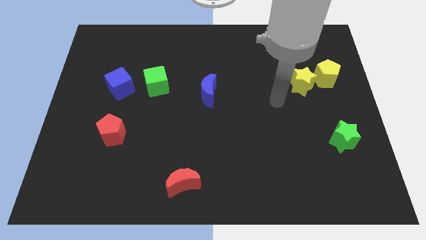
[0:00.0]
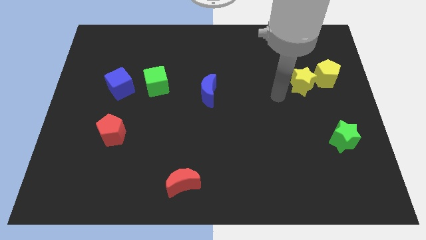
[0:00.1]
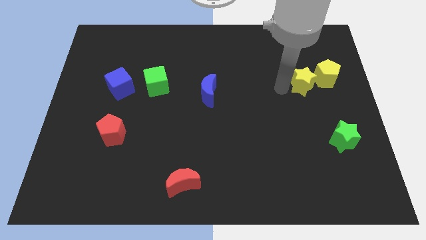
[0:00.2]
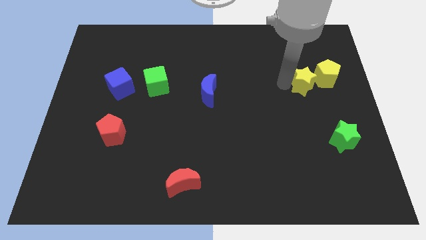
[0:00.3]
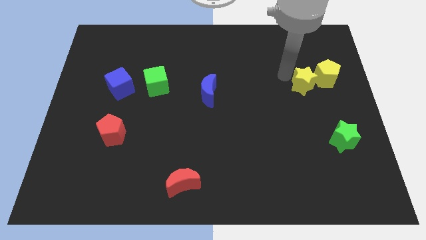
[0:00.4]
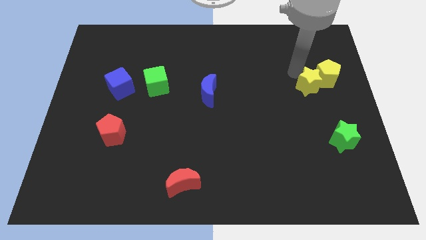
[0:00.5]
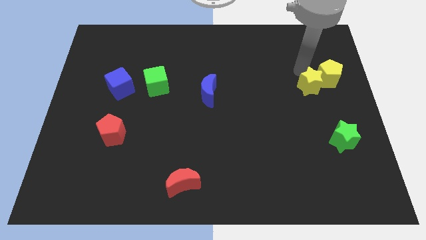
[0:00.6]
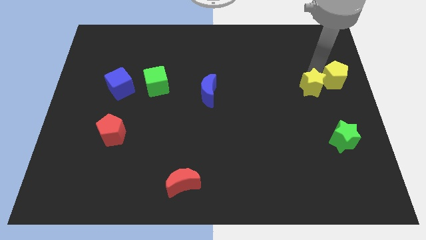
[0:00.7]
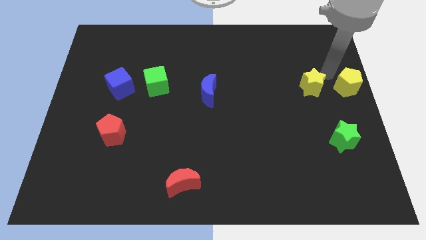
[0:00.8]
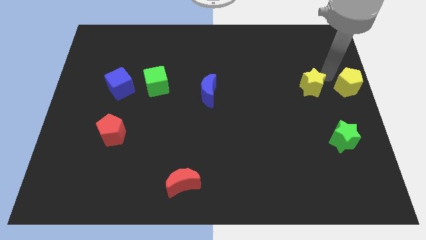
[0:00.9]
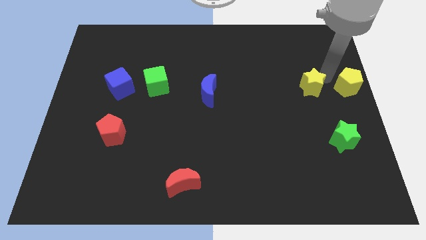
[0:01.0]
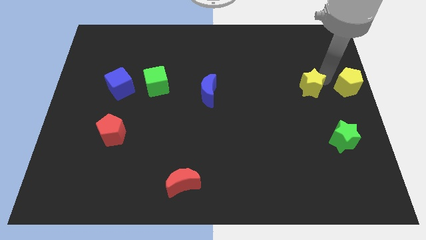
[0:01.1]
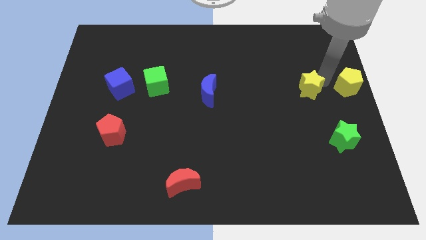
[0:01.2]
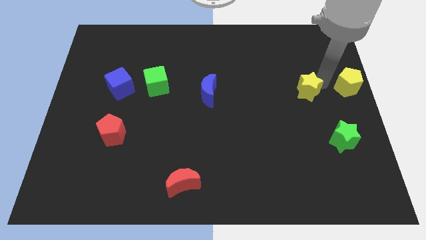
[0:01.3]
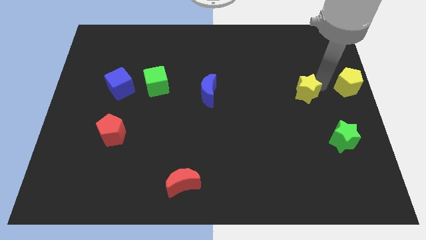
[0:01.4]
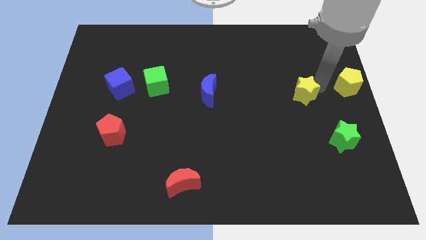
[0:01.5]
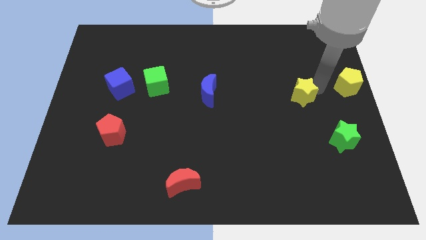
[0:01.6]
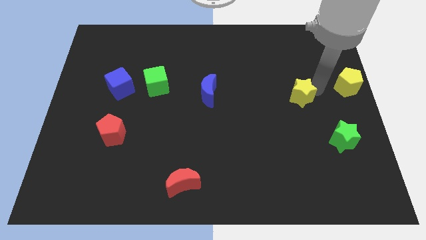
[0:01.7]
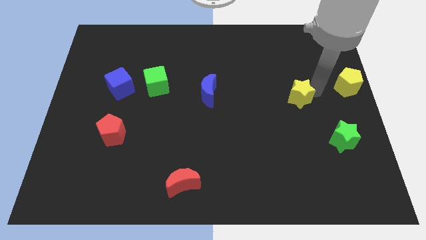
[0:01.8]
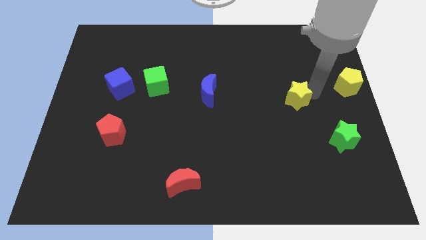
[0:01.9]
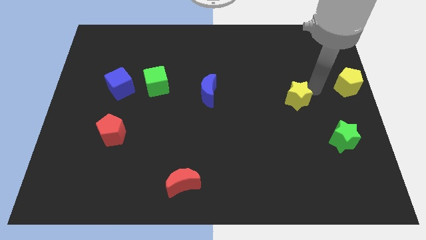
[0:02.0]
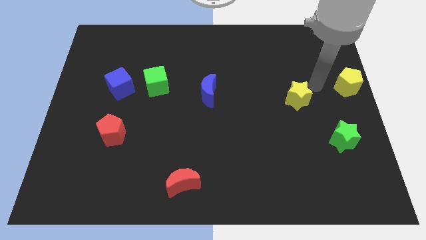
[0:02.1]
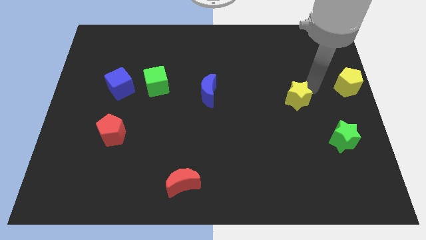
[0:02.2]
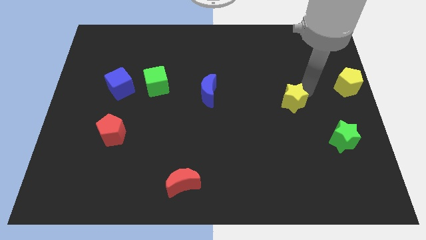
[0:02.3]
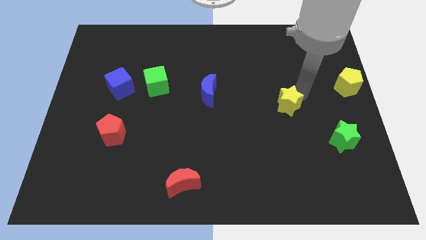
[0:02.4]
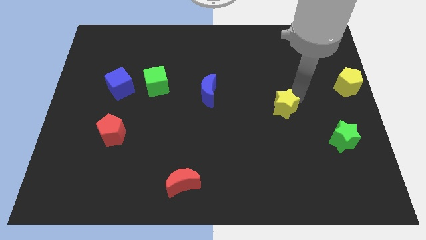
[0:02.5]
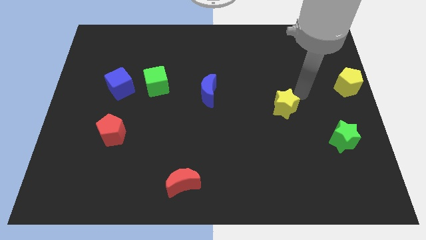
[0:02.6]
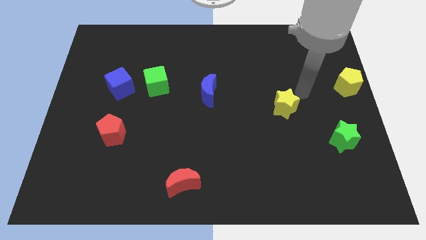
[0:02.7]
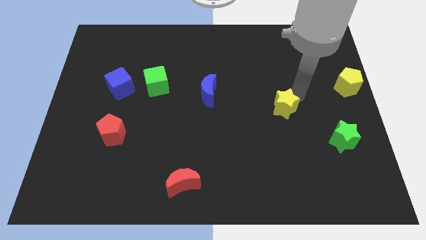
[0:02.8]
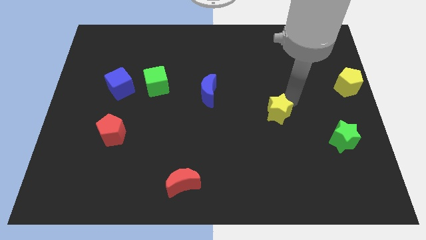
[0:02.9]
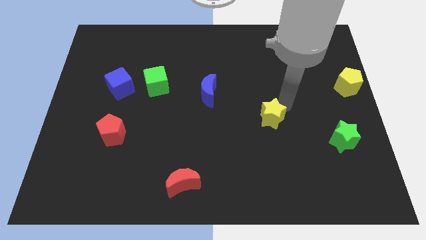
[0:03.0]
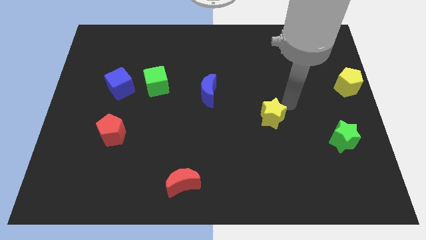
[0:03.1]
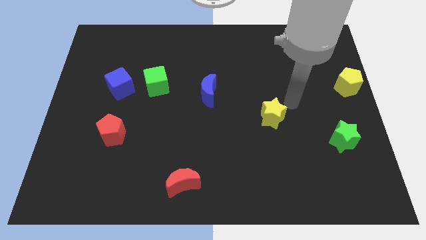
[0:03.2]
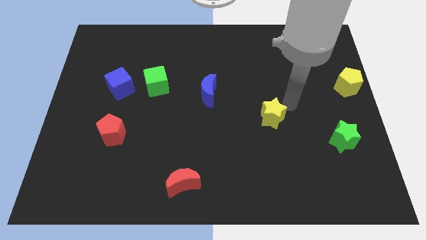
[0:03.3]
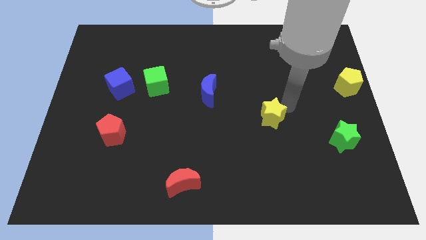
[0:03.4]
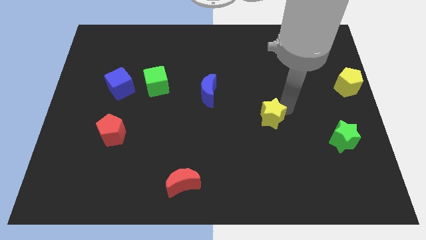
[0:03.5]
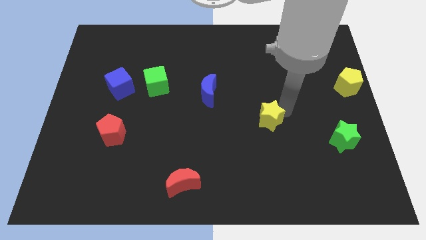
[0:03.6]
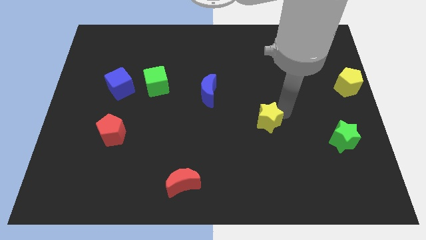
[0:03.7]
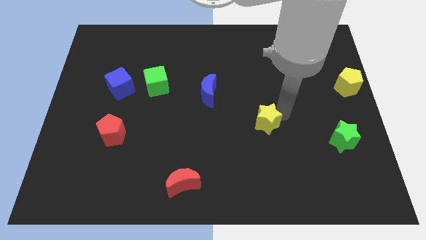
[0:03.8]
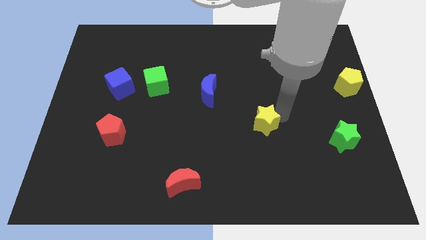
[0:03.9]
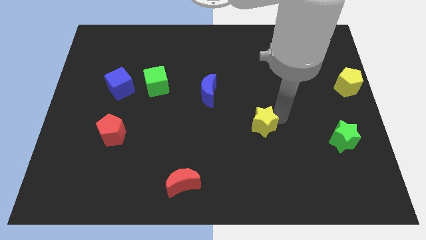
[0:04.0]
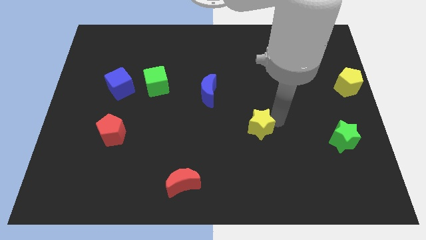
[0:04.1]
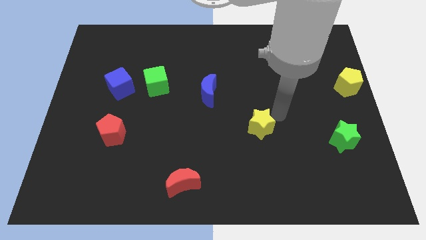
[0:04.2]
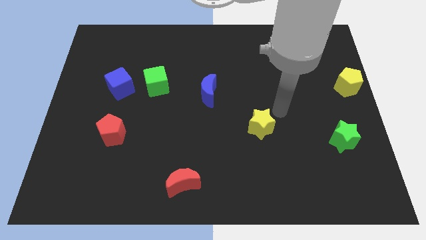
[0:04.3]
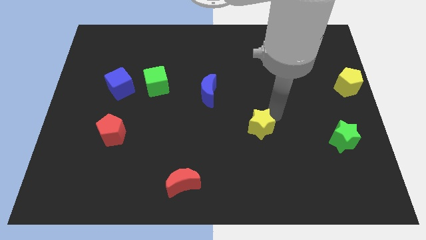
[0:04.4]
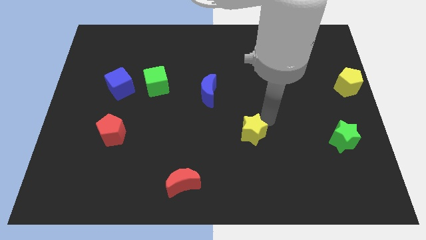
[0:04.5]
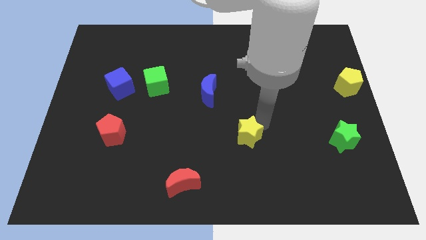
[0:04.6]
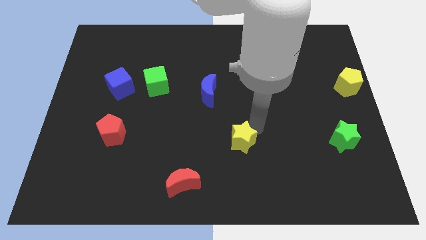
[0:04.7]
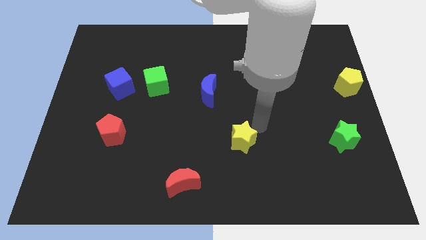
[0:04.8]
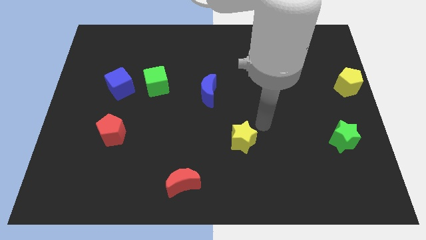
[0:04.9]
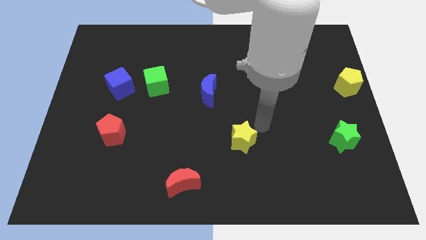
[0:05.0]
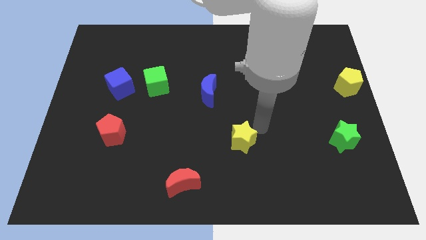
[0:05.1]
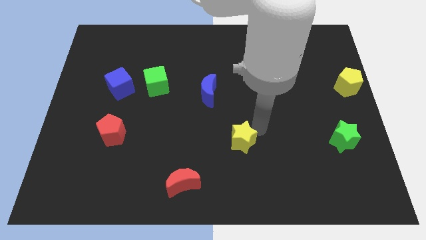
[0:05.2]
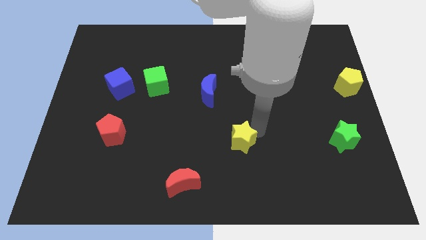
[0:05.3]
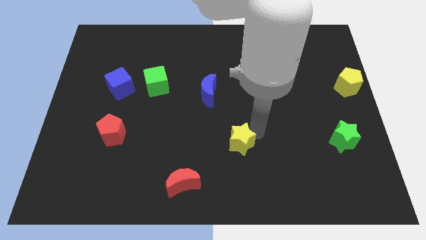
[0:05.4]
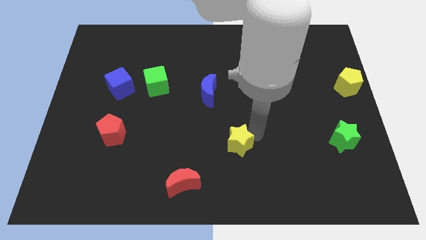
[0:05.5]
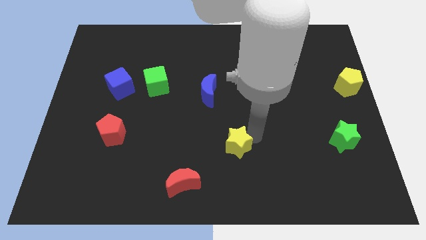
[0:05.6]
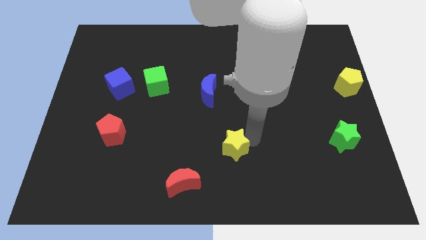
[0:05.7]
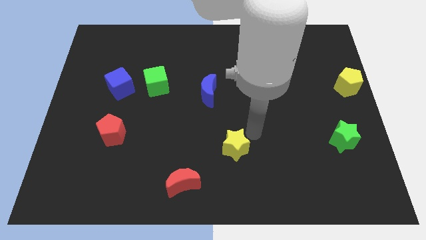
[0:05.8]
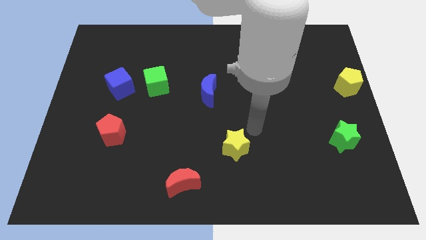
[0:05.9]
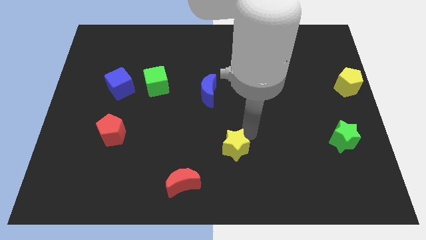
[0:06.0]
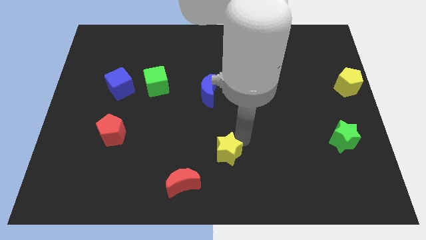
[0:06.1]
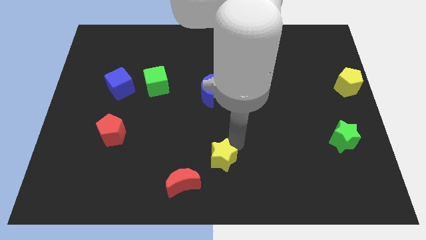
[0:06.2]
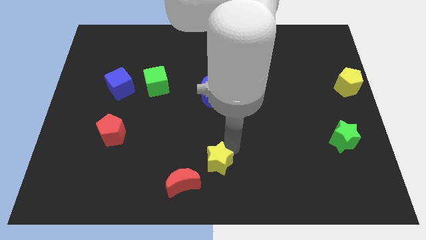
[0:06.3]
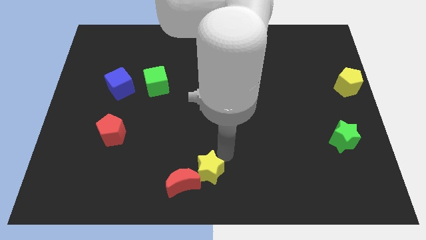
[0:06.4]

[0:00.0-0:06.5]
put the yellow star close to the red moon
